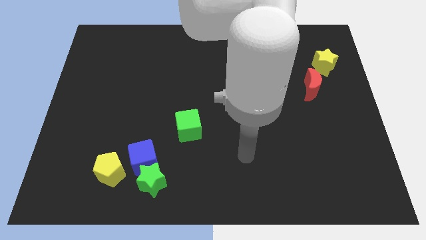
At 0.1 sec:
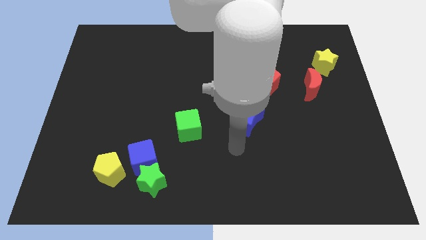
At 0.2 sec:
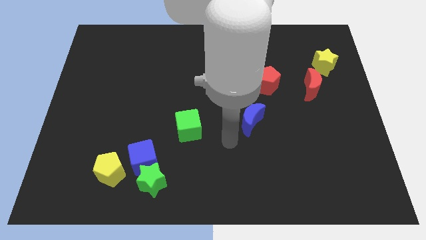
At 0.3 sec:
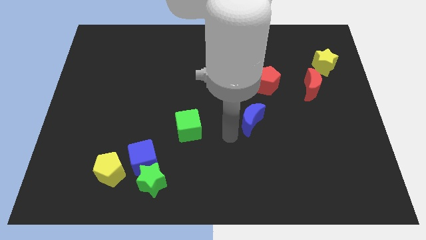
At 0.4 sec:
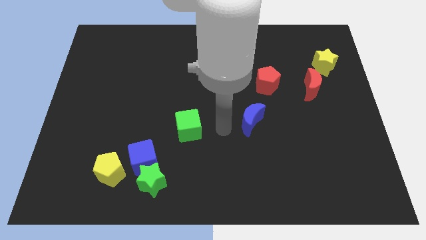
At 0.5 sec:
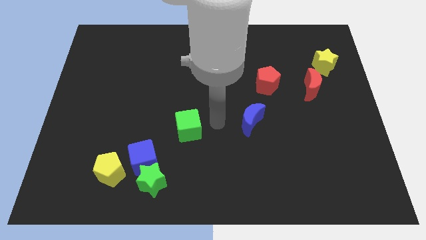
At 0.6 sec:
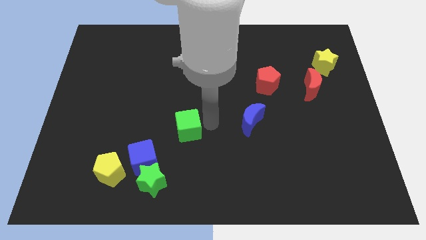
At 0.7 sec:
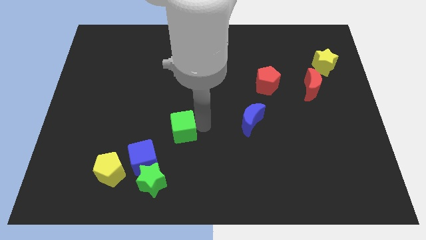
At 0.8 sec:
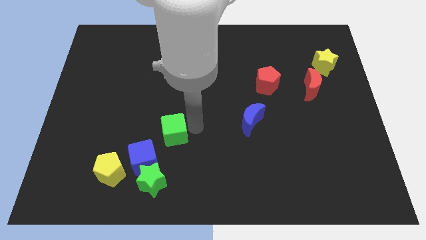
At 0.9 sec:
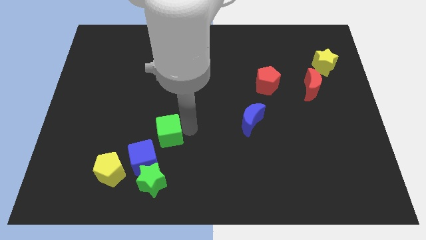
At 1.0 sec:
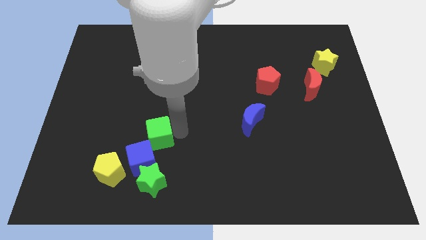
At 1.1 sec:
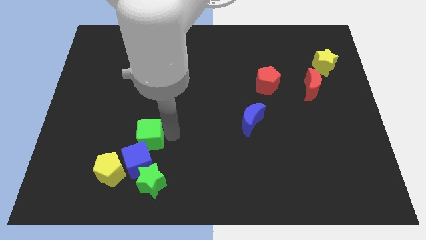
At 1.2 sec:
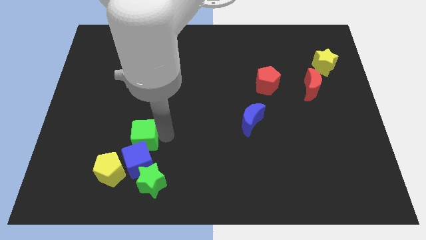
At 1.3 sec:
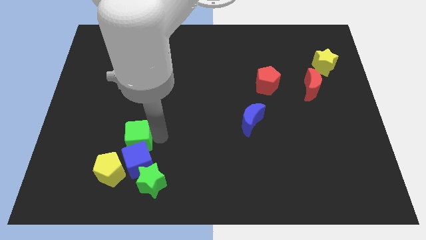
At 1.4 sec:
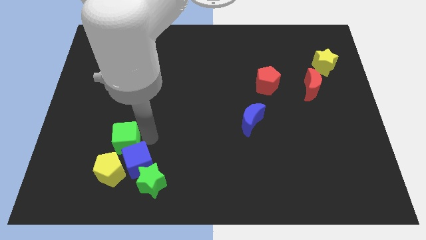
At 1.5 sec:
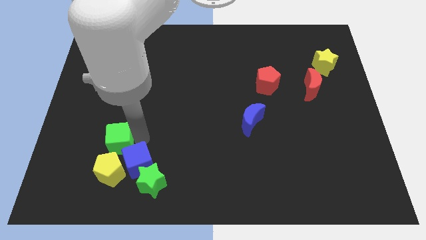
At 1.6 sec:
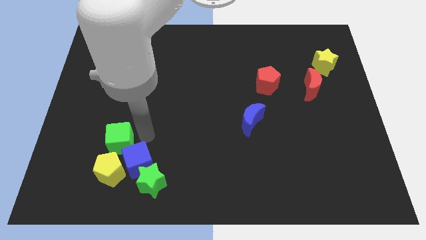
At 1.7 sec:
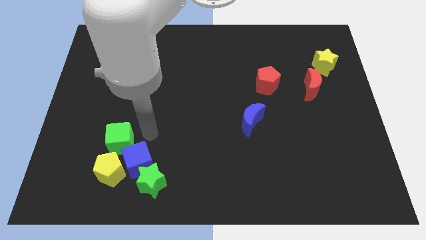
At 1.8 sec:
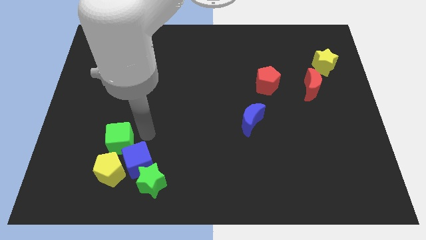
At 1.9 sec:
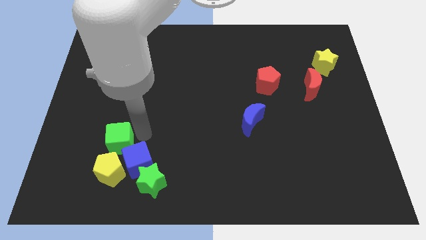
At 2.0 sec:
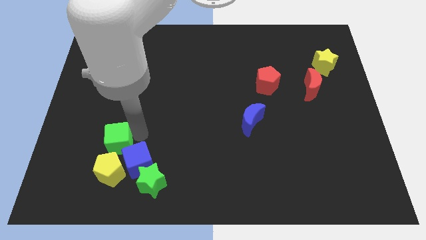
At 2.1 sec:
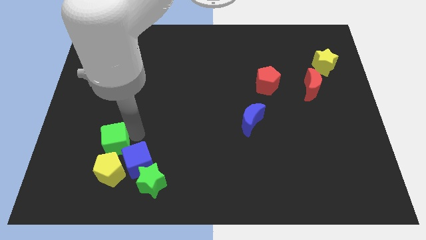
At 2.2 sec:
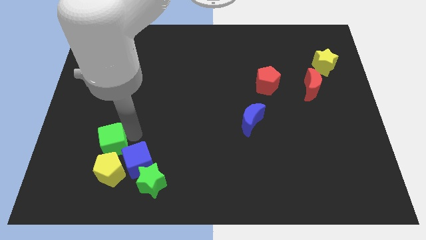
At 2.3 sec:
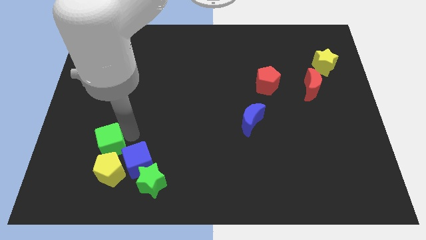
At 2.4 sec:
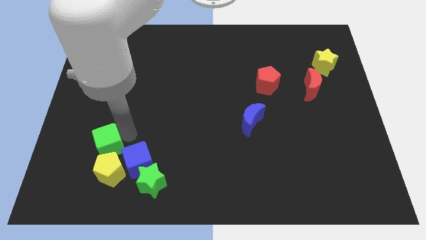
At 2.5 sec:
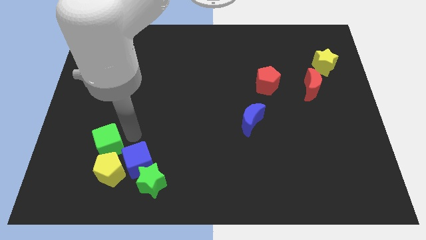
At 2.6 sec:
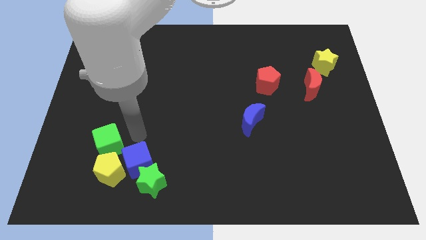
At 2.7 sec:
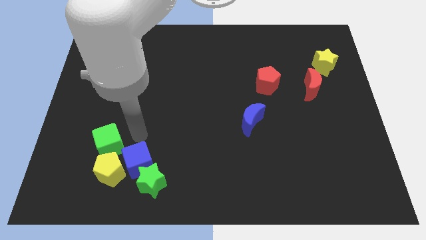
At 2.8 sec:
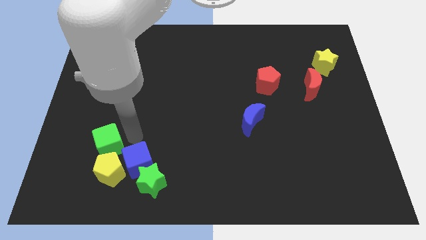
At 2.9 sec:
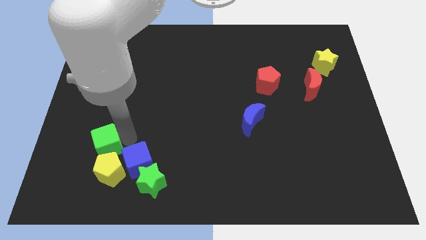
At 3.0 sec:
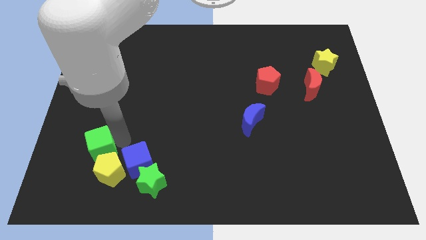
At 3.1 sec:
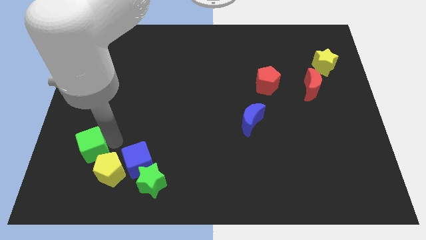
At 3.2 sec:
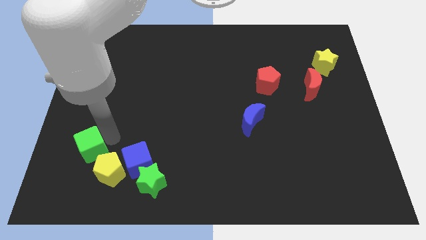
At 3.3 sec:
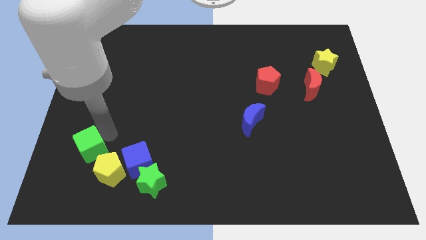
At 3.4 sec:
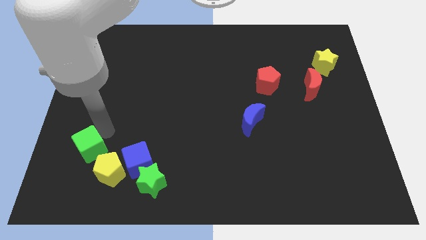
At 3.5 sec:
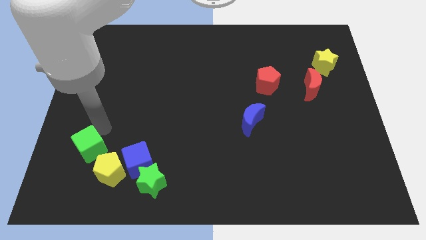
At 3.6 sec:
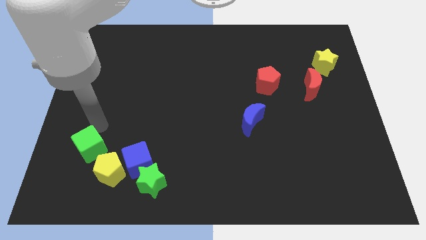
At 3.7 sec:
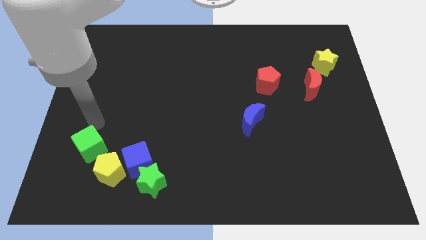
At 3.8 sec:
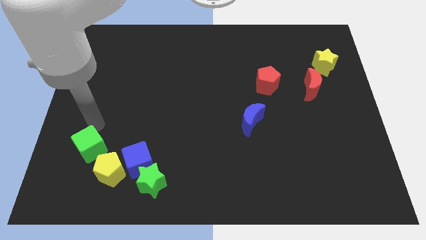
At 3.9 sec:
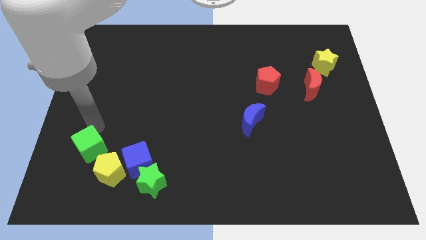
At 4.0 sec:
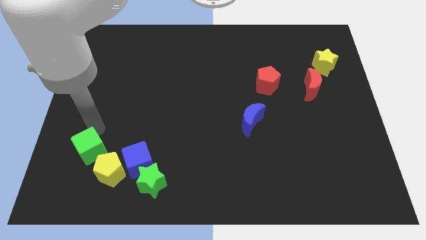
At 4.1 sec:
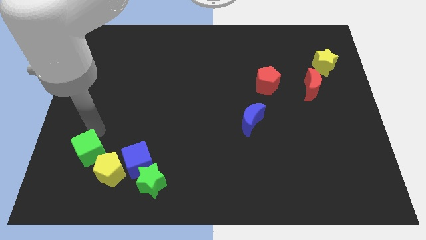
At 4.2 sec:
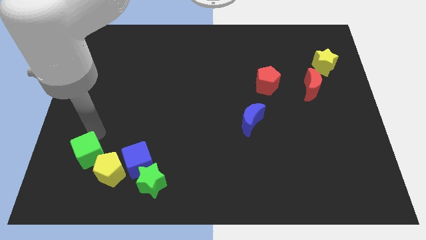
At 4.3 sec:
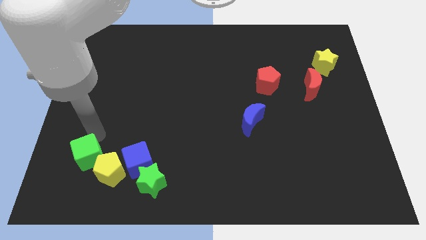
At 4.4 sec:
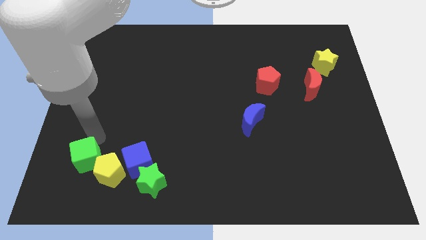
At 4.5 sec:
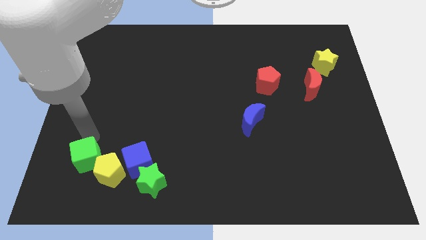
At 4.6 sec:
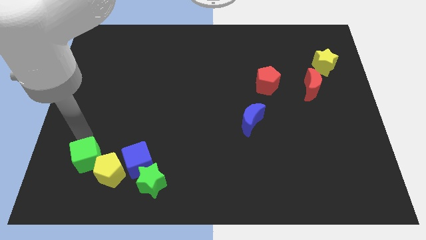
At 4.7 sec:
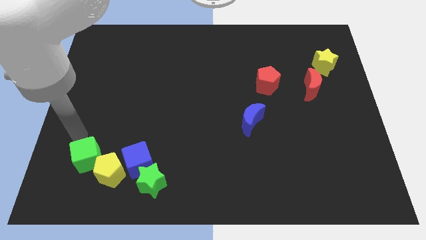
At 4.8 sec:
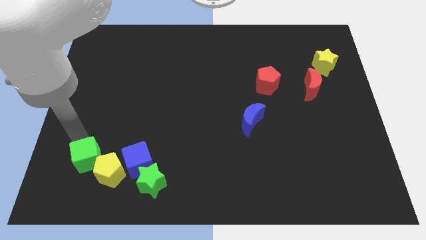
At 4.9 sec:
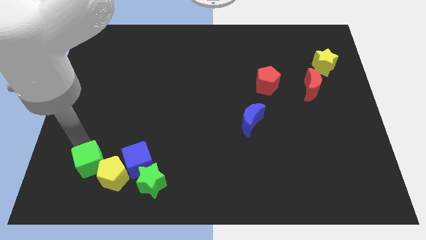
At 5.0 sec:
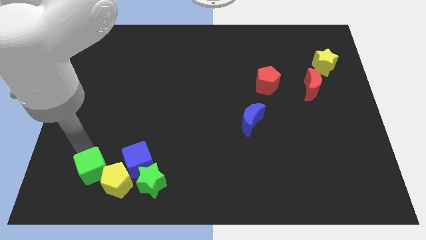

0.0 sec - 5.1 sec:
push the green cube to the left of the green star
